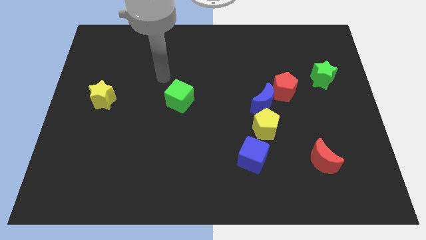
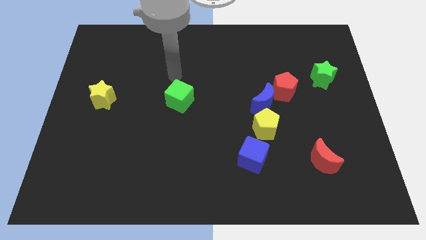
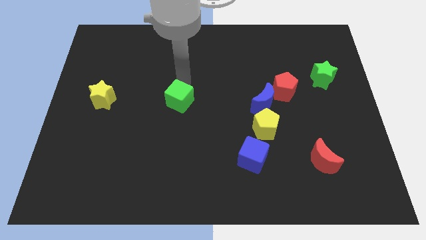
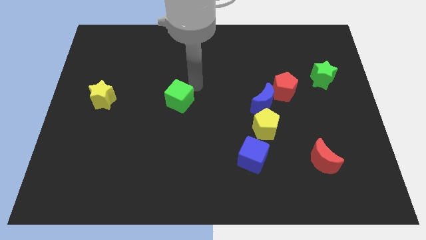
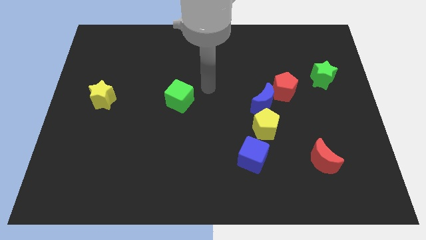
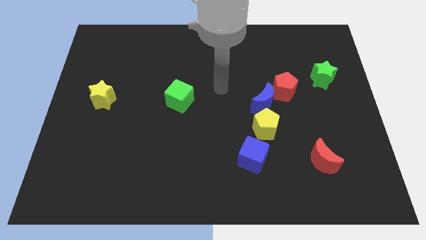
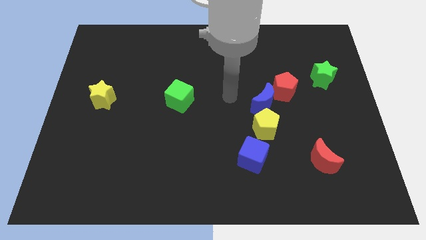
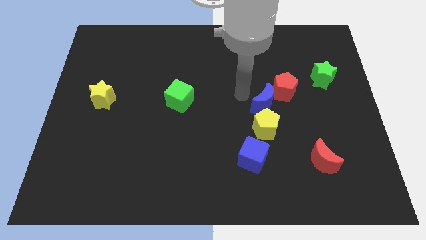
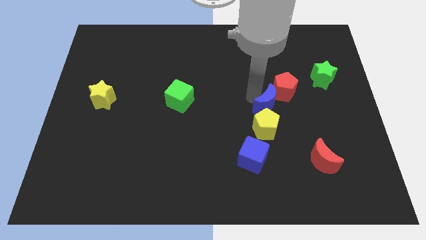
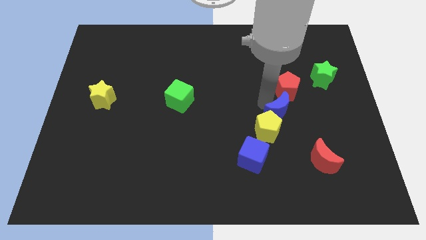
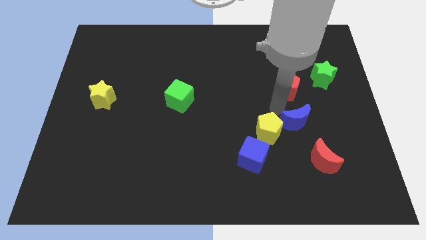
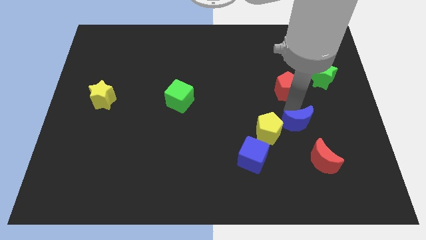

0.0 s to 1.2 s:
pull the red pentagon apart from the blue moon

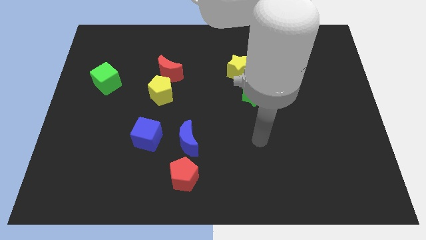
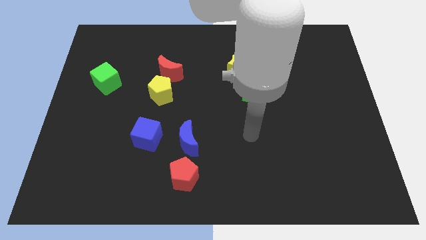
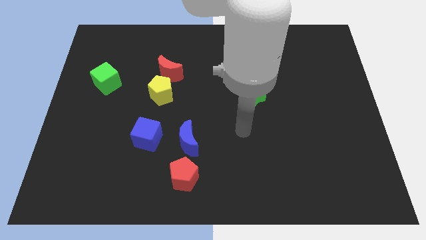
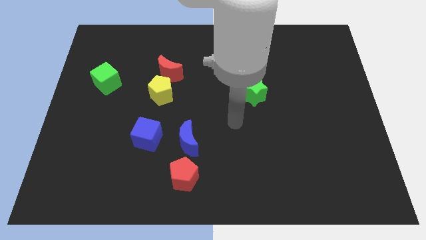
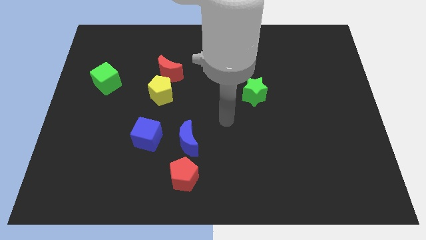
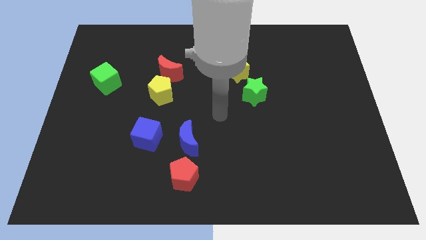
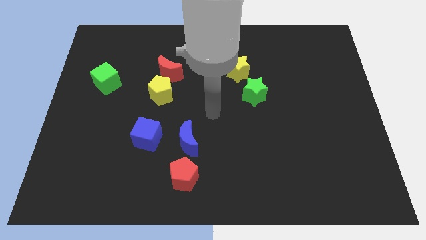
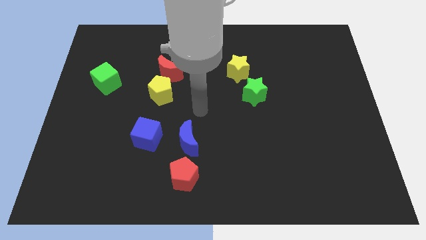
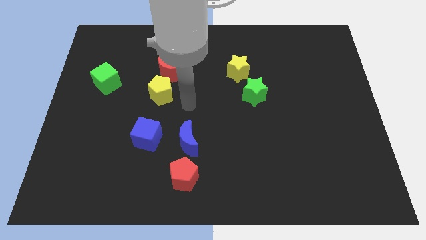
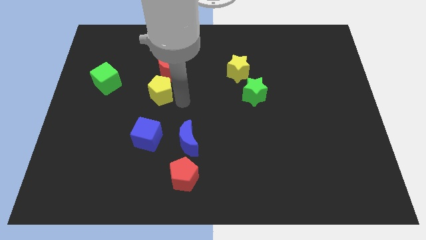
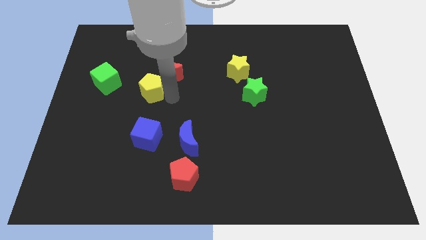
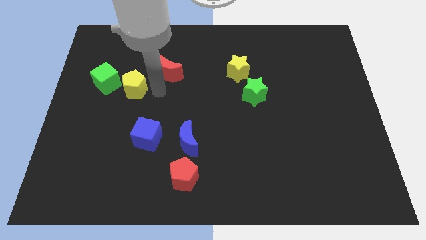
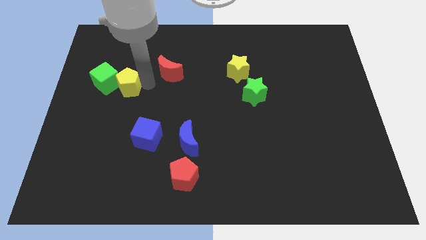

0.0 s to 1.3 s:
separate the red moon from the yellow pentagon

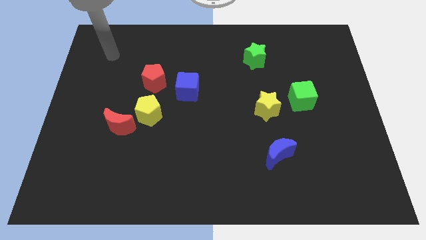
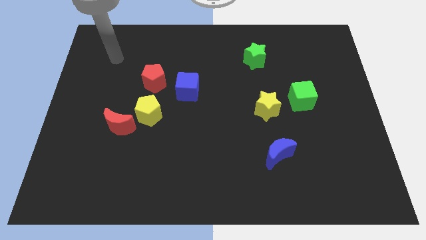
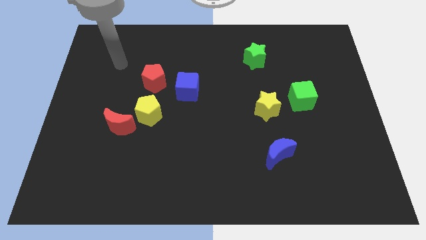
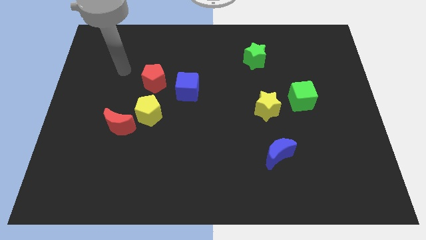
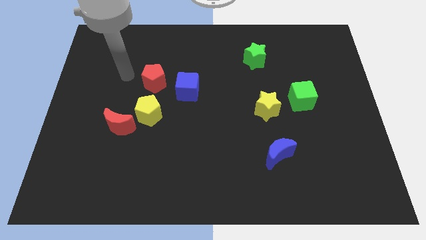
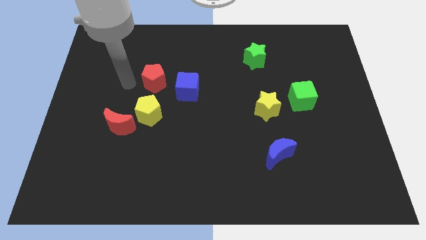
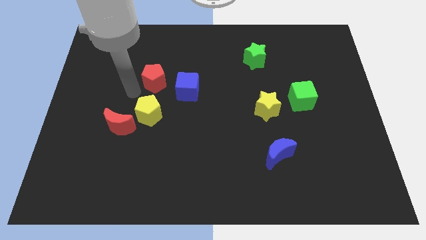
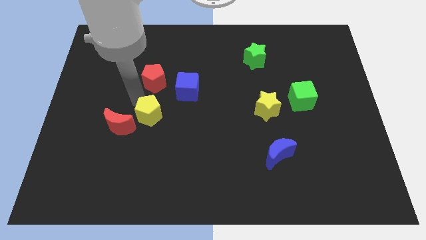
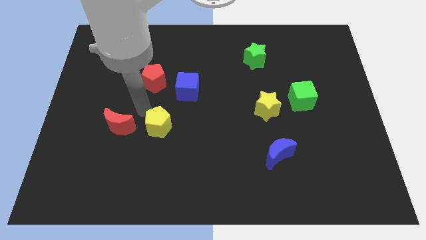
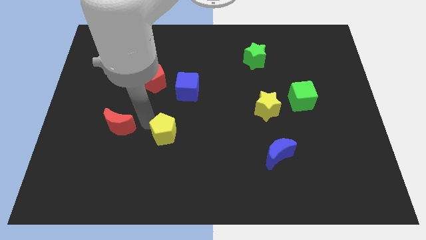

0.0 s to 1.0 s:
move the red moon away from the yellow pentagon

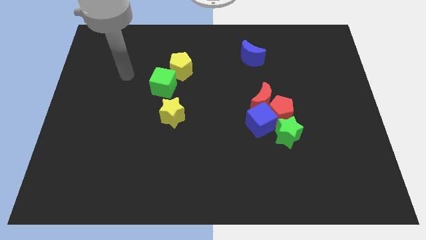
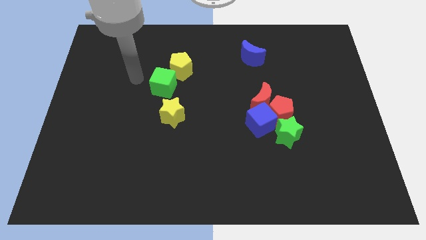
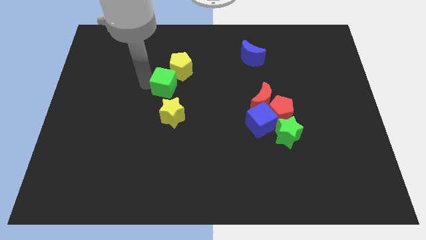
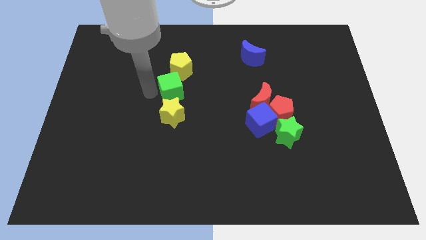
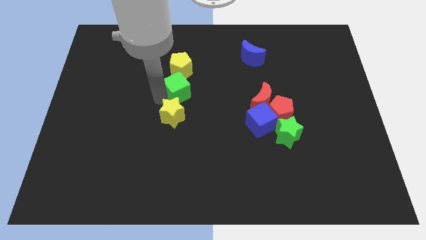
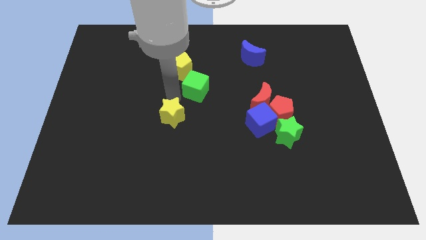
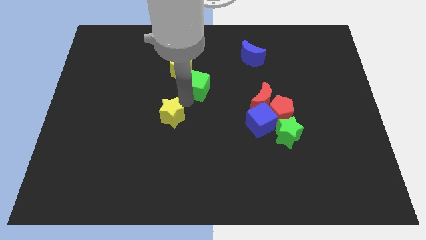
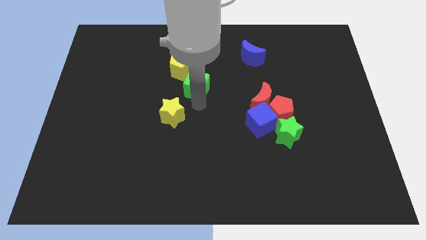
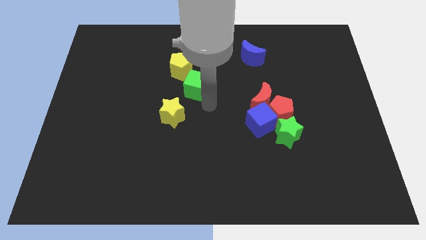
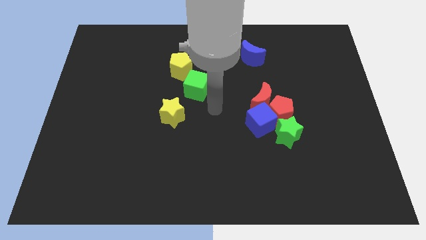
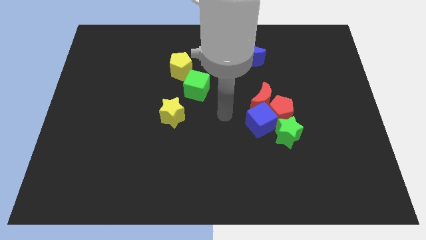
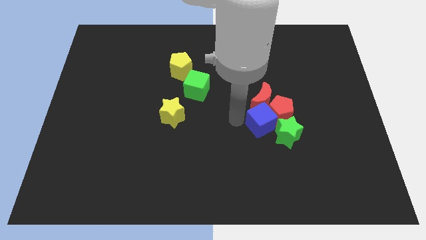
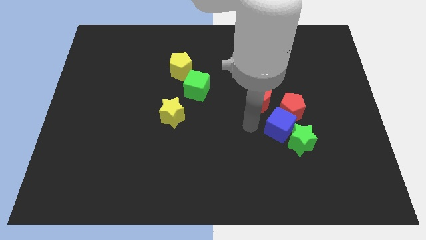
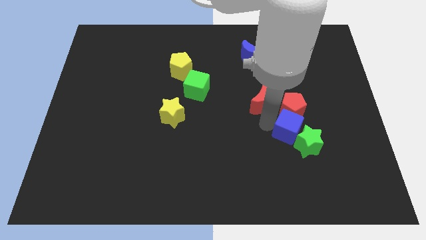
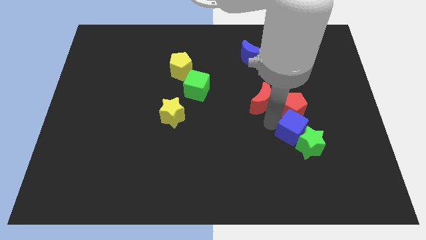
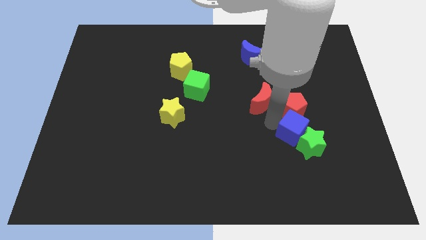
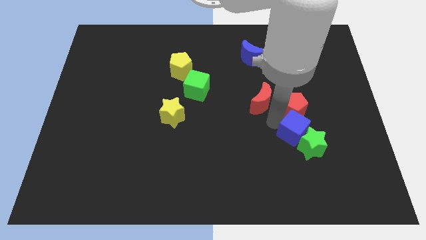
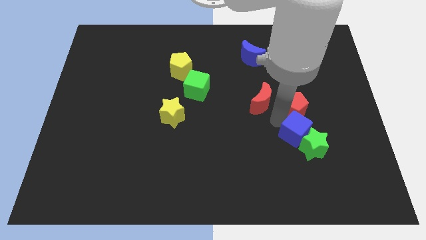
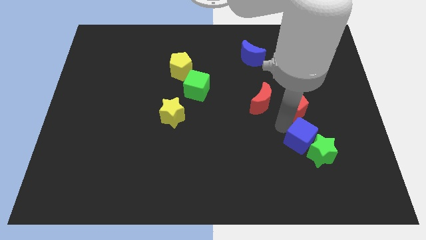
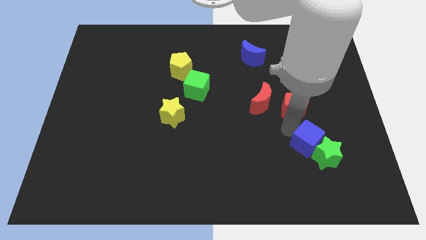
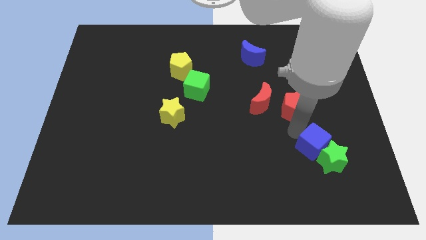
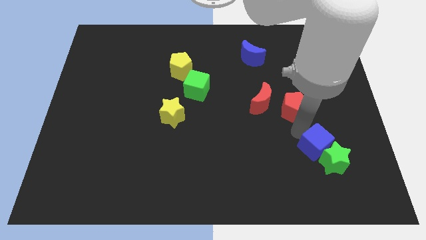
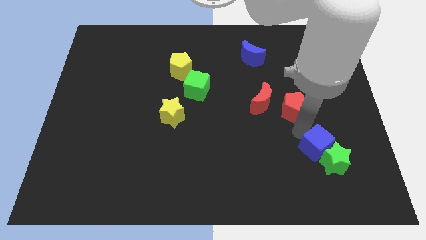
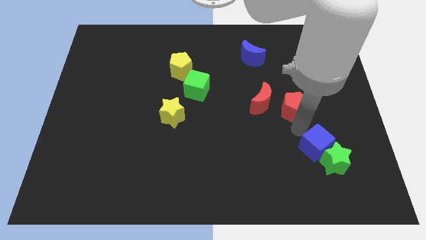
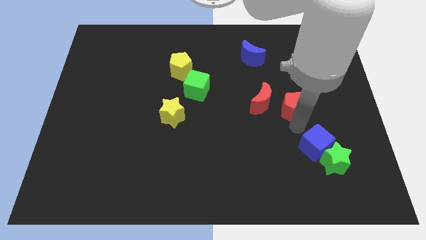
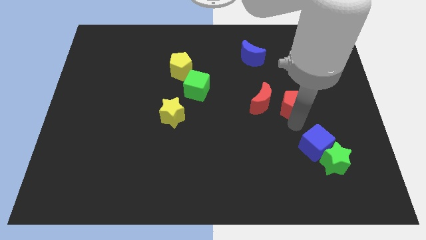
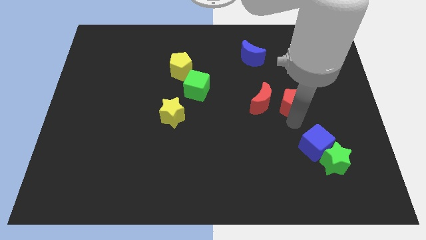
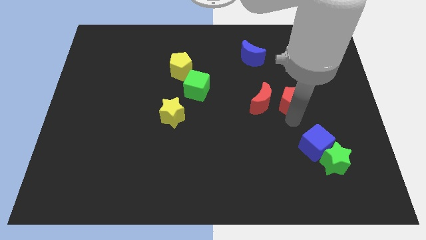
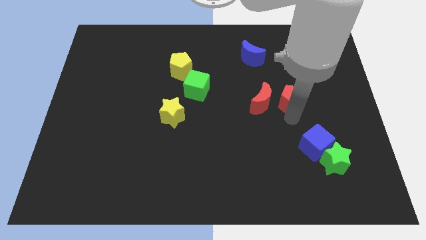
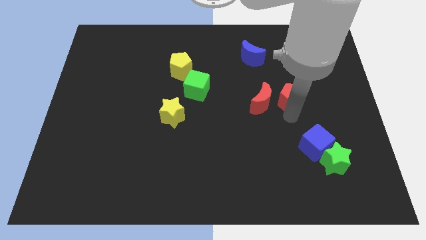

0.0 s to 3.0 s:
pull the red pentagon apart from the clump

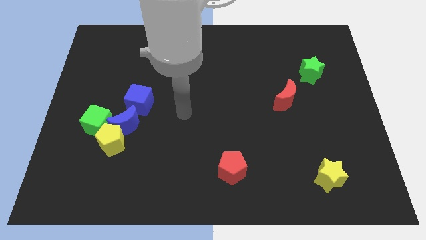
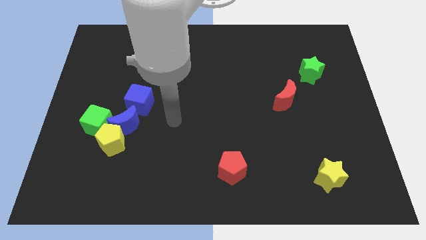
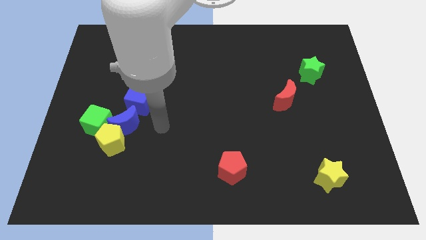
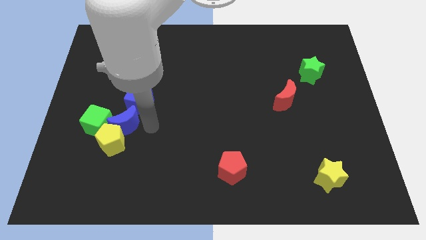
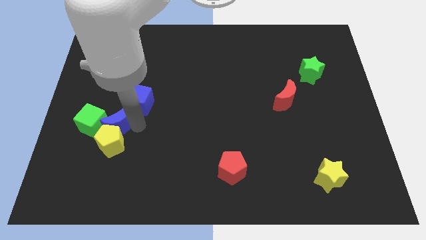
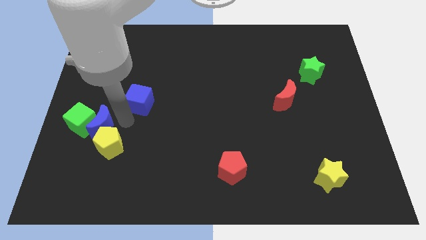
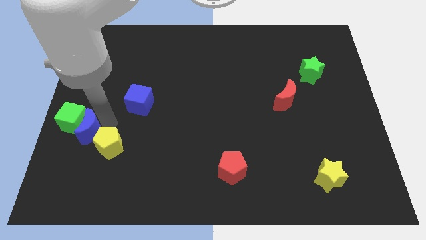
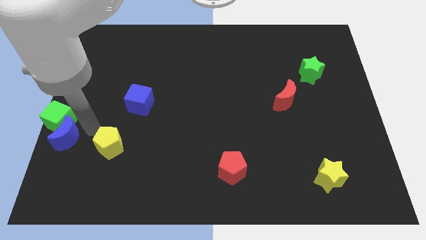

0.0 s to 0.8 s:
separate the yellow pentagon from the blue moon and green cube

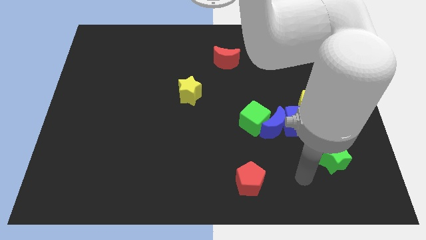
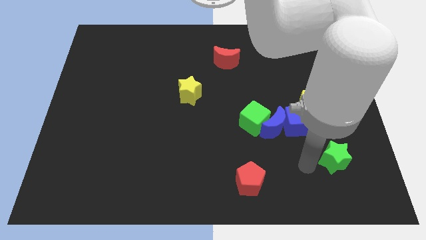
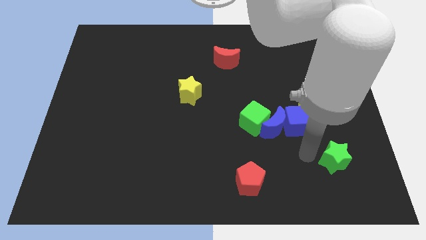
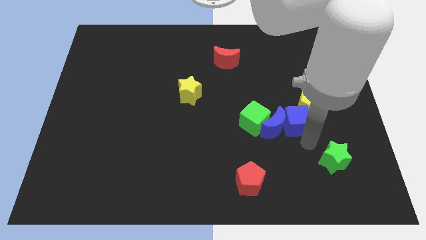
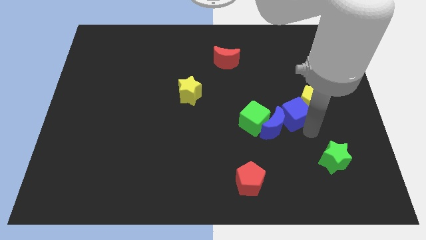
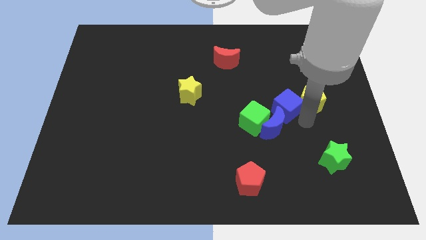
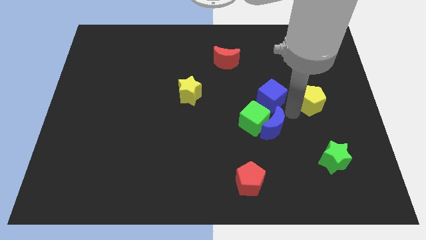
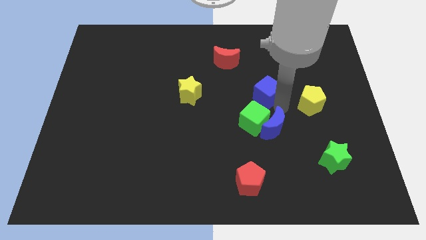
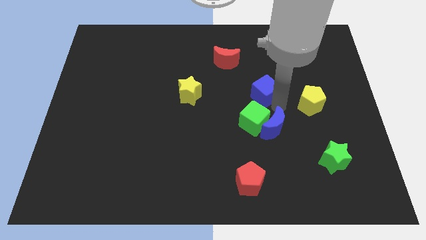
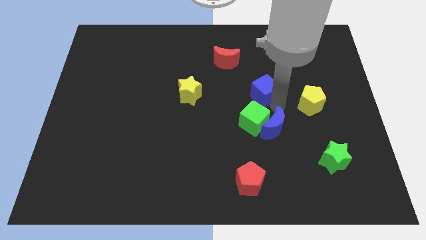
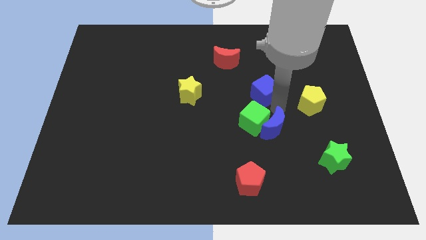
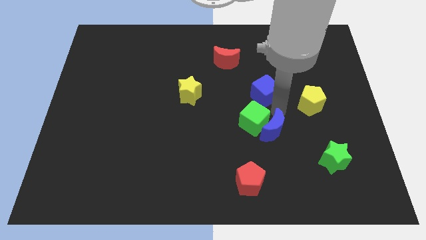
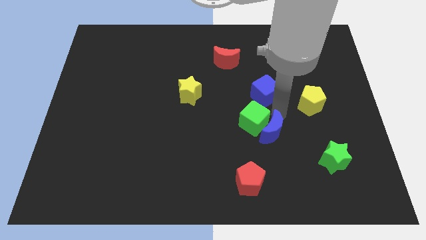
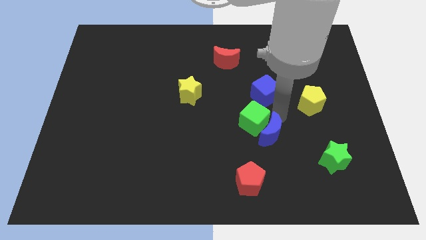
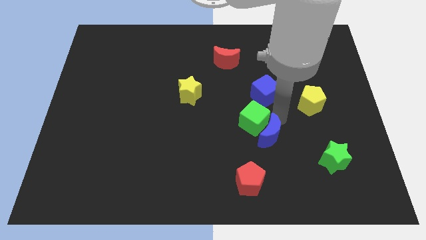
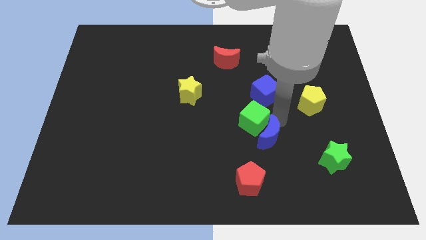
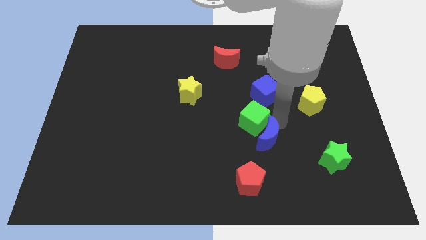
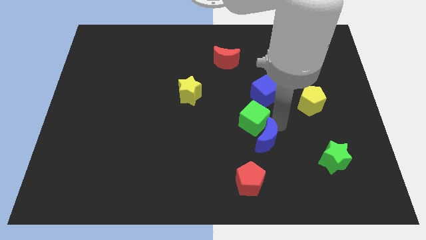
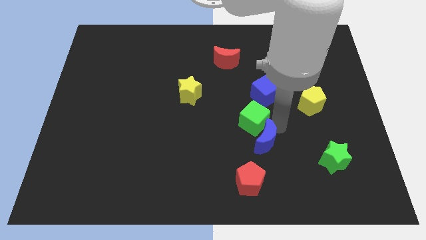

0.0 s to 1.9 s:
pull the blue moon apart from the green cube, blue cube, and yellow pentagon

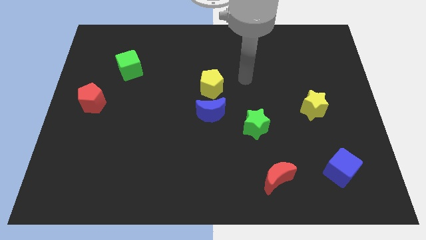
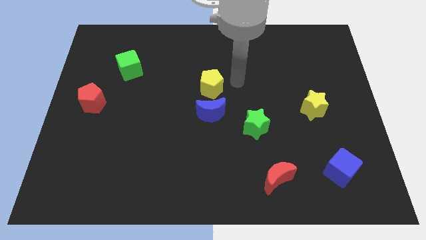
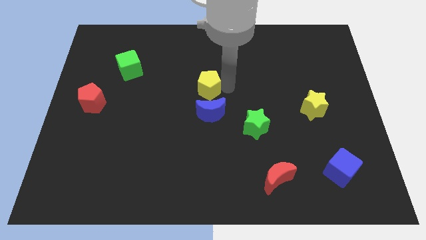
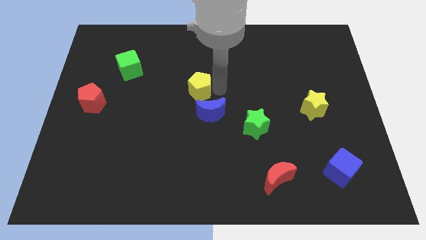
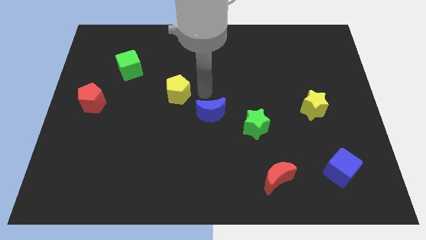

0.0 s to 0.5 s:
separate the blue moon from the yellow pentagon
